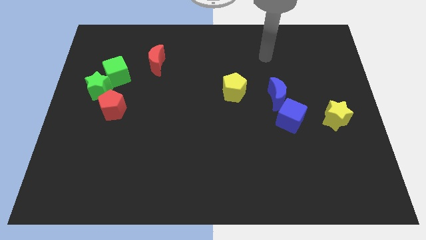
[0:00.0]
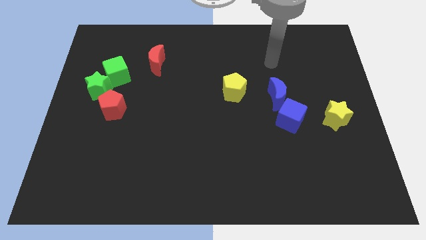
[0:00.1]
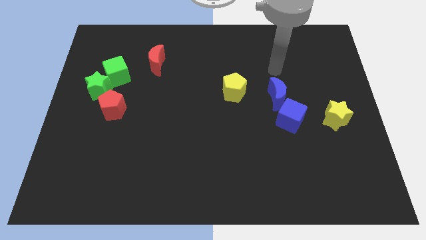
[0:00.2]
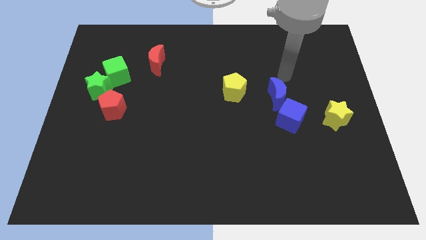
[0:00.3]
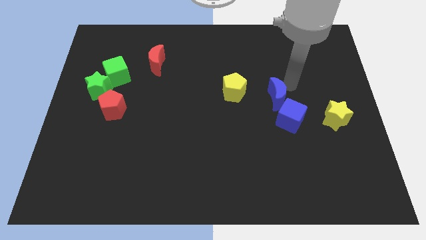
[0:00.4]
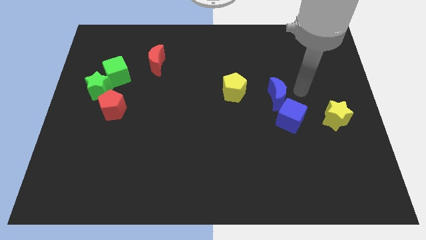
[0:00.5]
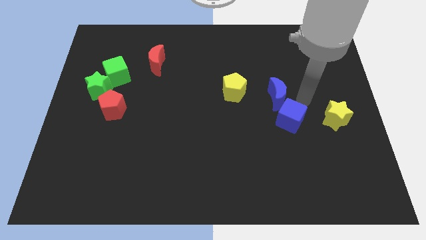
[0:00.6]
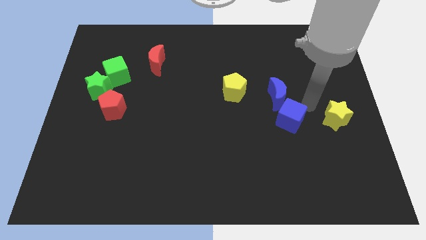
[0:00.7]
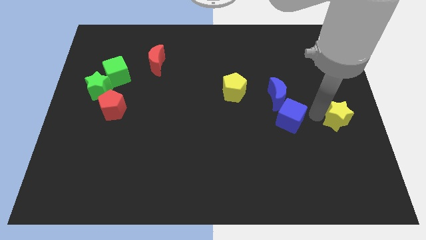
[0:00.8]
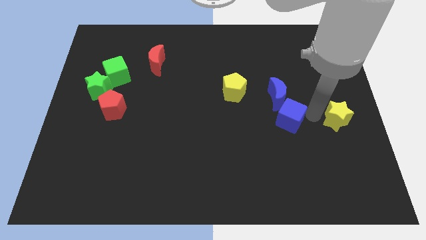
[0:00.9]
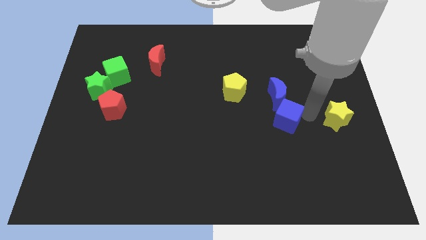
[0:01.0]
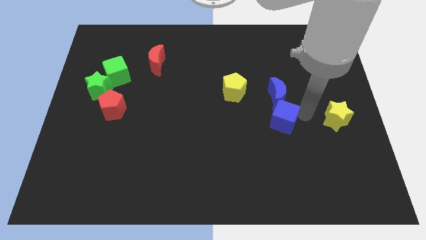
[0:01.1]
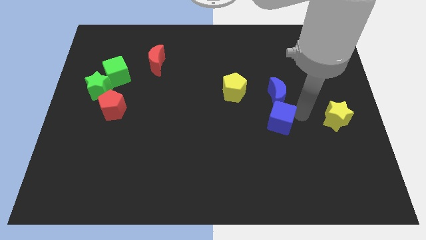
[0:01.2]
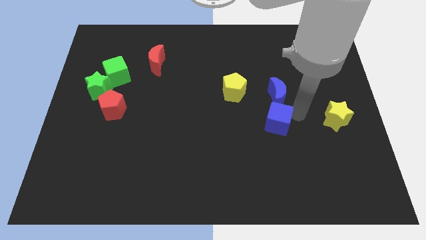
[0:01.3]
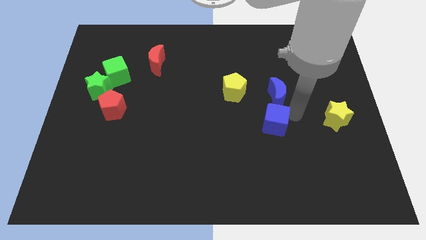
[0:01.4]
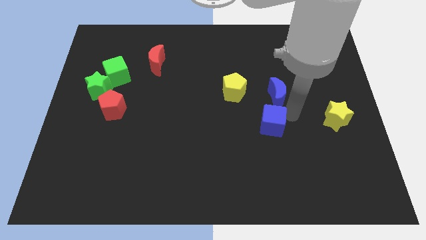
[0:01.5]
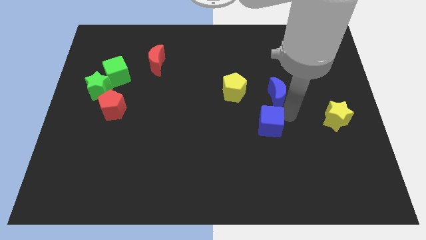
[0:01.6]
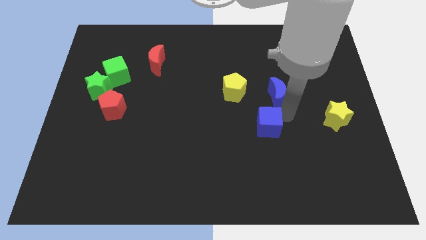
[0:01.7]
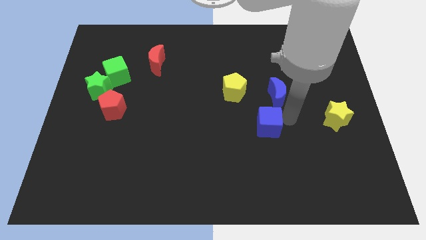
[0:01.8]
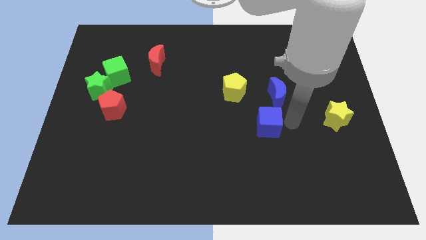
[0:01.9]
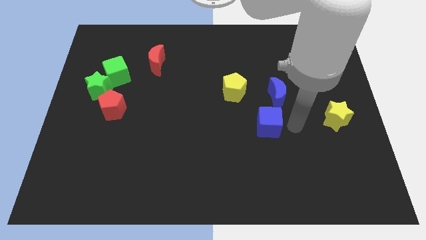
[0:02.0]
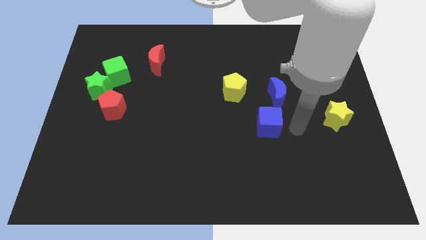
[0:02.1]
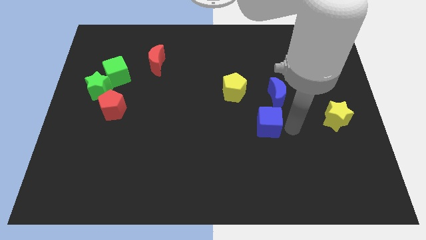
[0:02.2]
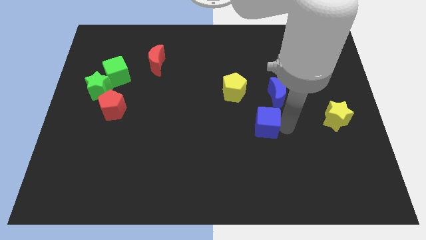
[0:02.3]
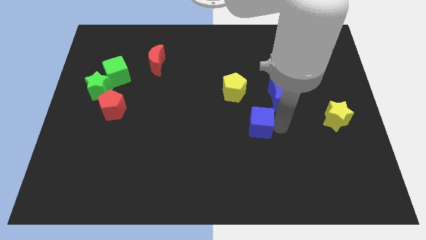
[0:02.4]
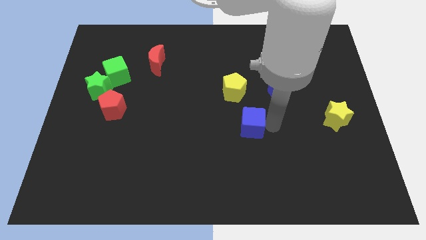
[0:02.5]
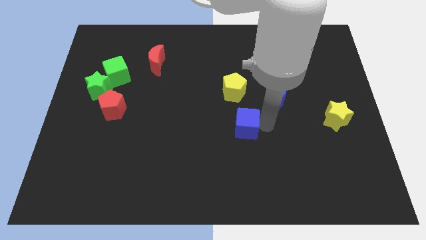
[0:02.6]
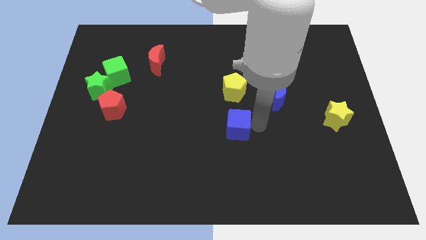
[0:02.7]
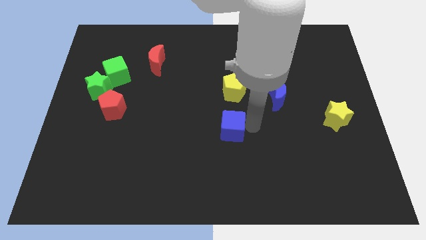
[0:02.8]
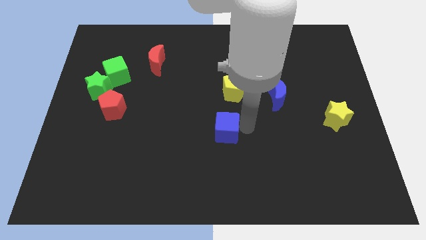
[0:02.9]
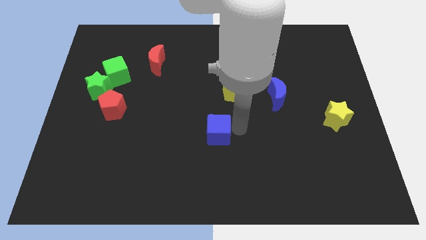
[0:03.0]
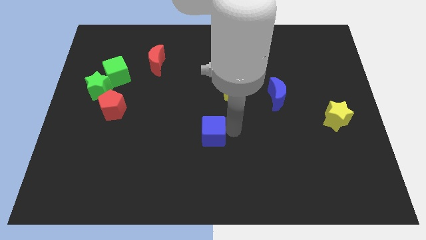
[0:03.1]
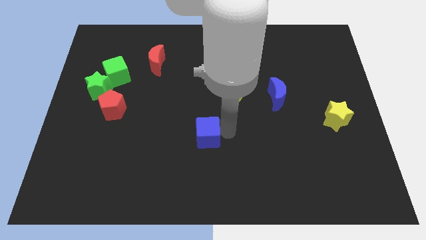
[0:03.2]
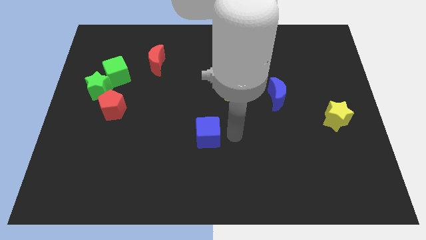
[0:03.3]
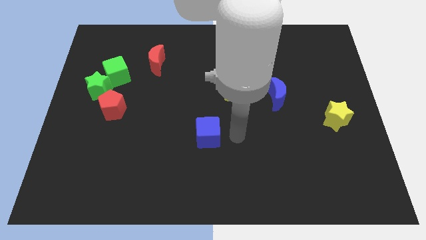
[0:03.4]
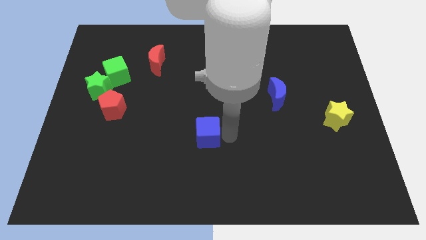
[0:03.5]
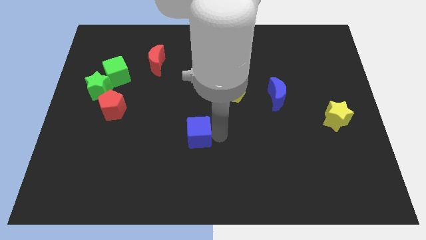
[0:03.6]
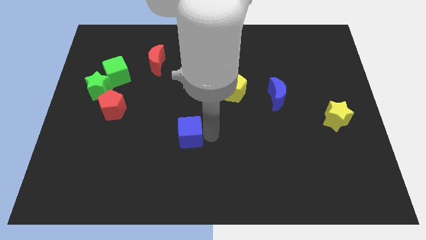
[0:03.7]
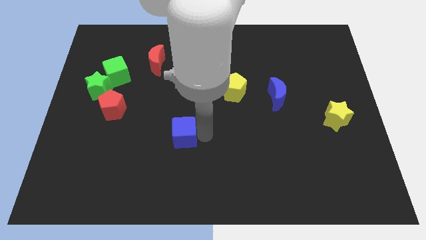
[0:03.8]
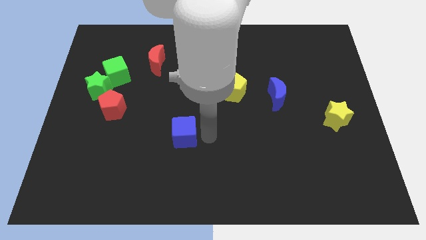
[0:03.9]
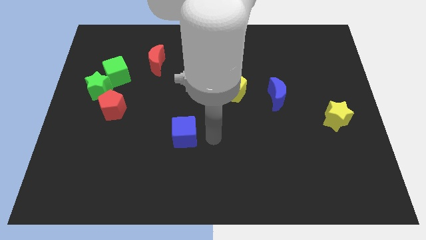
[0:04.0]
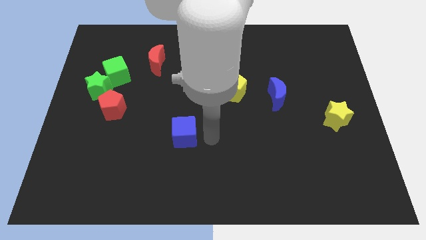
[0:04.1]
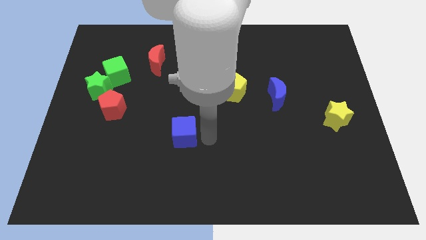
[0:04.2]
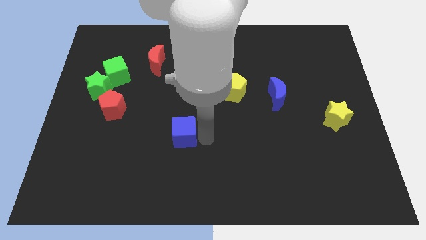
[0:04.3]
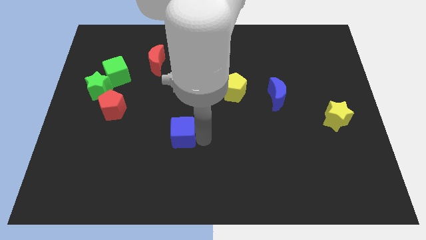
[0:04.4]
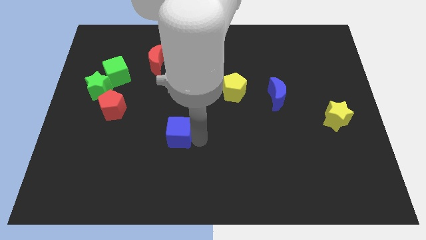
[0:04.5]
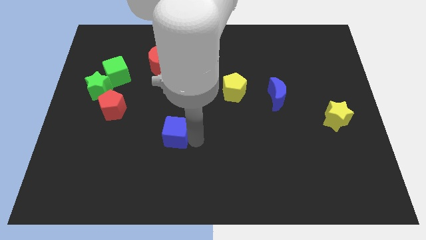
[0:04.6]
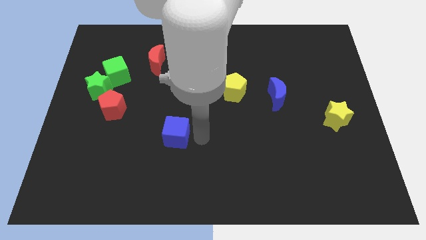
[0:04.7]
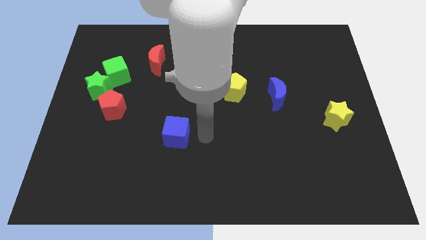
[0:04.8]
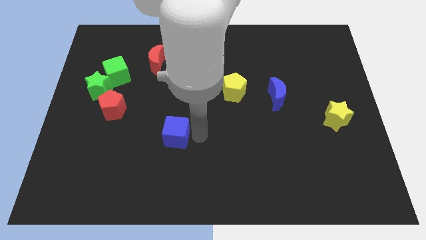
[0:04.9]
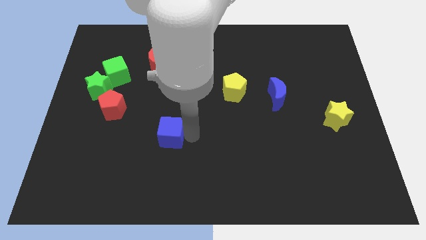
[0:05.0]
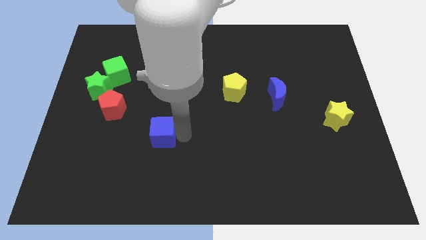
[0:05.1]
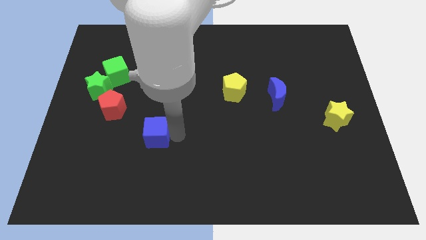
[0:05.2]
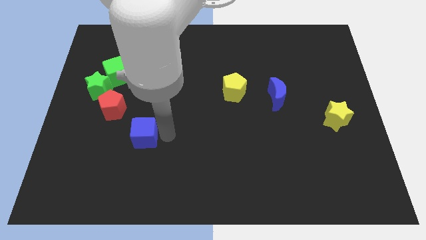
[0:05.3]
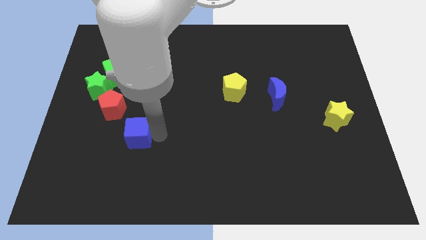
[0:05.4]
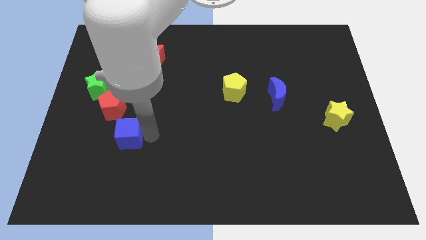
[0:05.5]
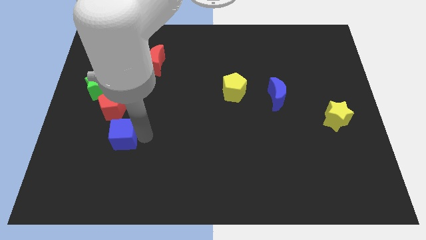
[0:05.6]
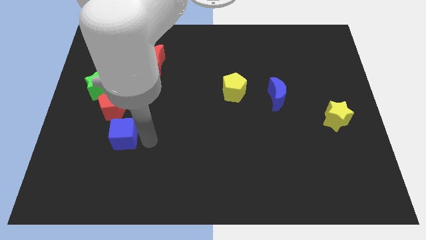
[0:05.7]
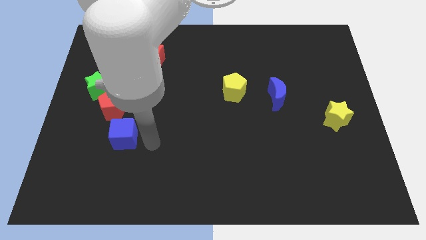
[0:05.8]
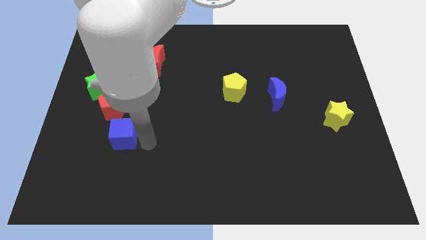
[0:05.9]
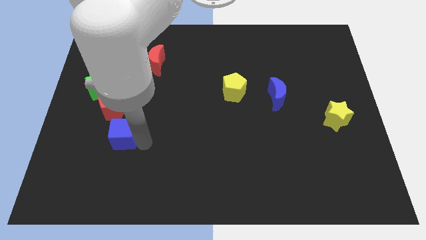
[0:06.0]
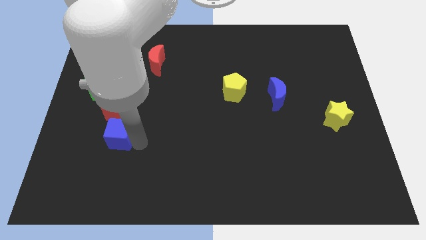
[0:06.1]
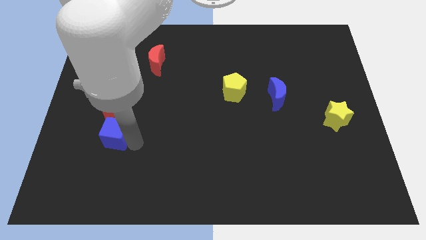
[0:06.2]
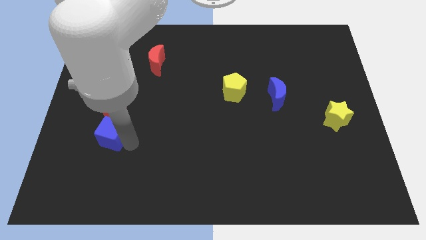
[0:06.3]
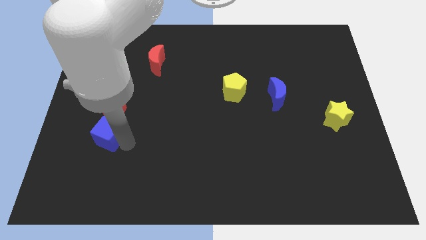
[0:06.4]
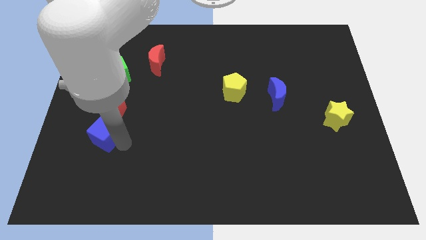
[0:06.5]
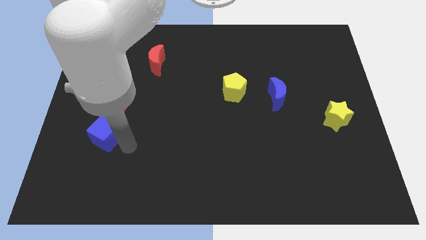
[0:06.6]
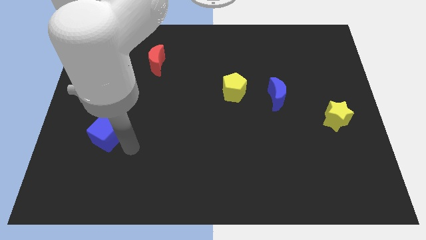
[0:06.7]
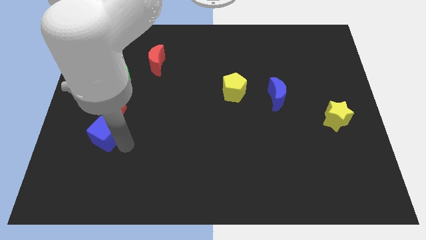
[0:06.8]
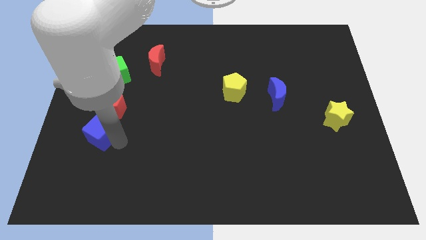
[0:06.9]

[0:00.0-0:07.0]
put the blue cube to the bottom left side of the red pentagon

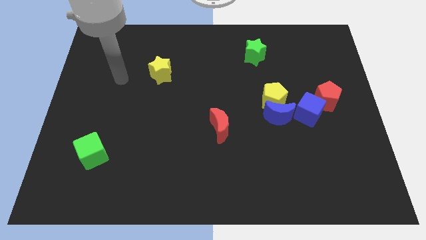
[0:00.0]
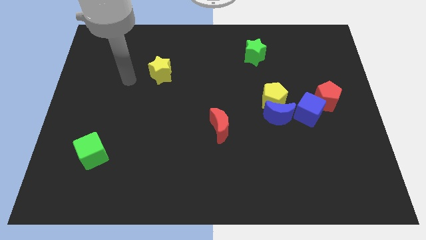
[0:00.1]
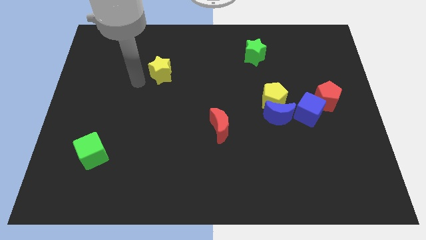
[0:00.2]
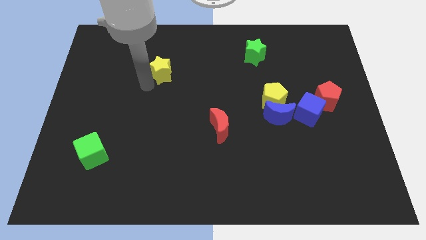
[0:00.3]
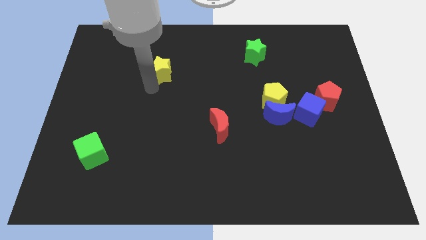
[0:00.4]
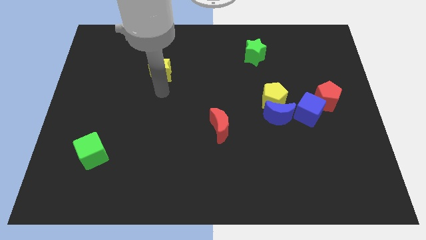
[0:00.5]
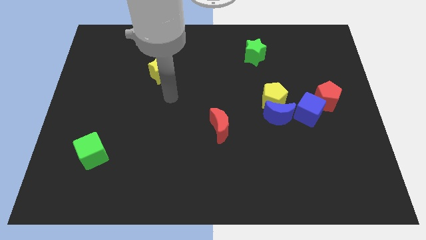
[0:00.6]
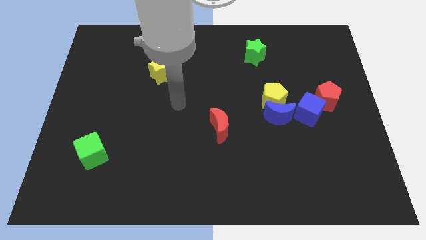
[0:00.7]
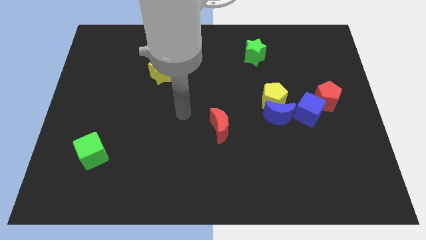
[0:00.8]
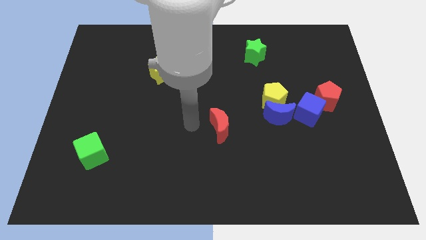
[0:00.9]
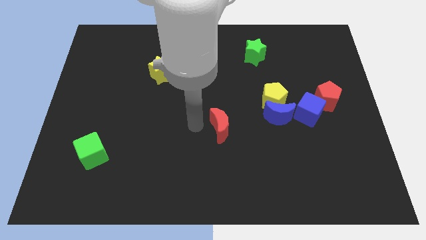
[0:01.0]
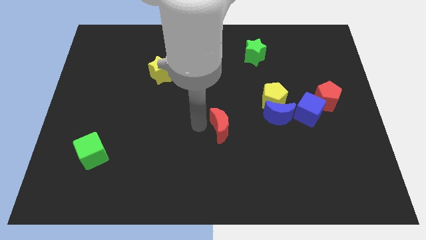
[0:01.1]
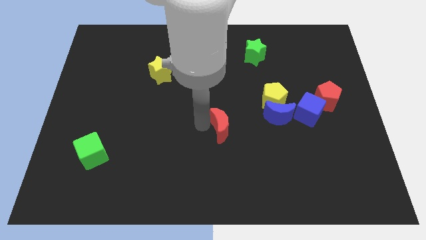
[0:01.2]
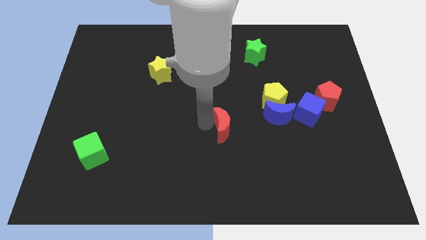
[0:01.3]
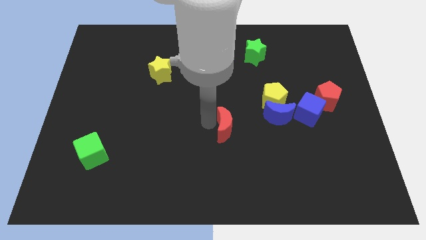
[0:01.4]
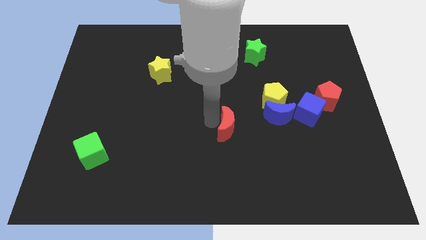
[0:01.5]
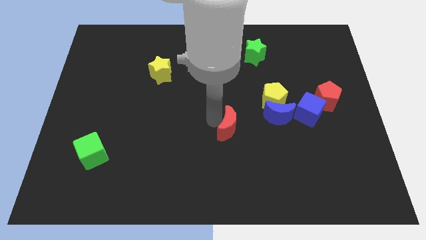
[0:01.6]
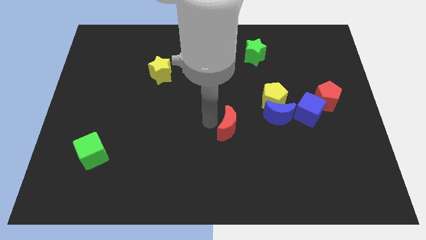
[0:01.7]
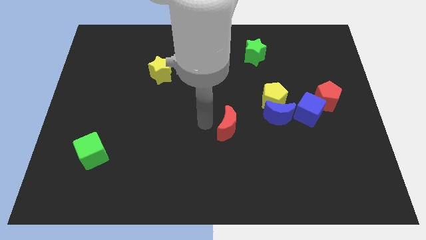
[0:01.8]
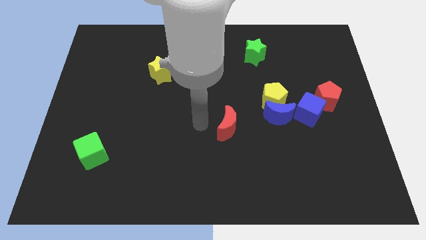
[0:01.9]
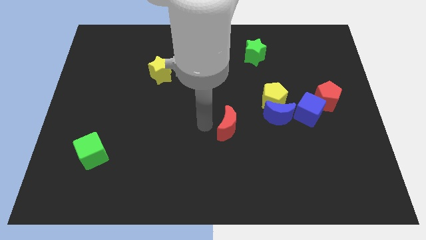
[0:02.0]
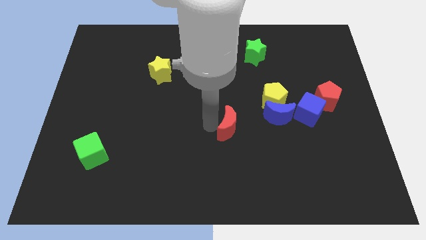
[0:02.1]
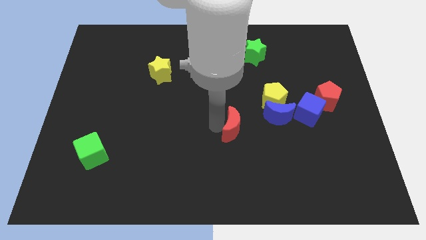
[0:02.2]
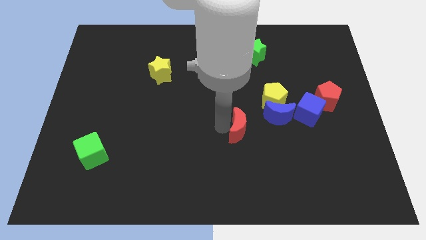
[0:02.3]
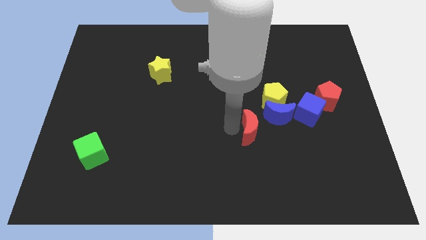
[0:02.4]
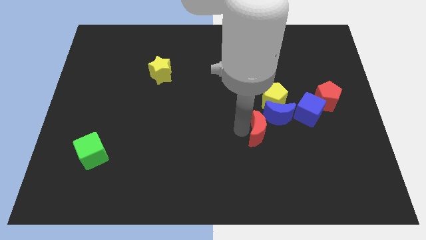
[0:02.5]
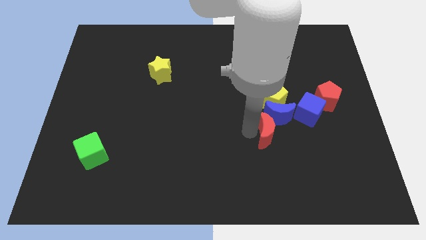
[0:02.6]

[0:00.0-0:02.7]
put the red moon to the bottom left of the blue cube
